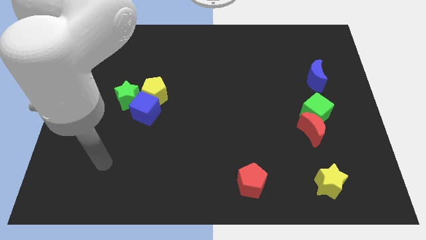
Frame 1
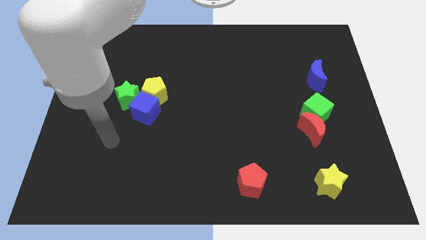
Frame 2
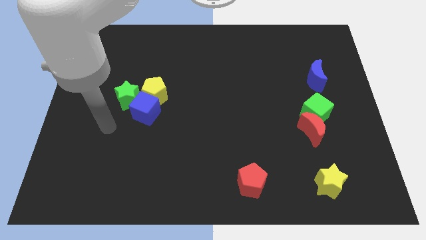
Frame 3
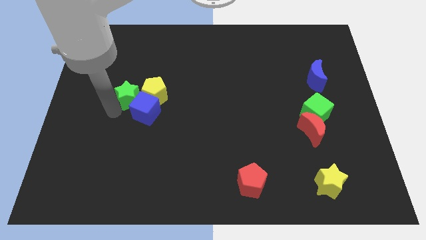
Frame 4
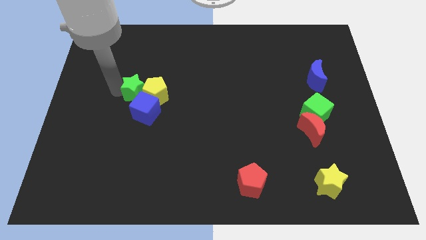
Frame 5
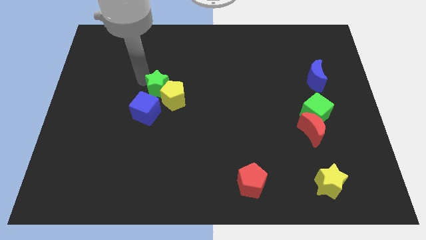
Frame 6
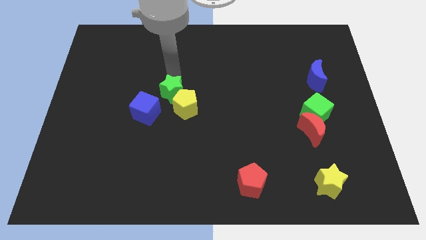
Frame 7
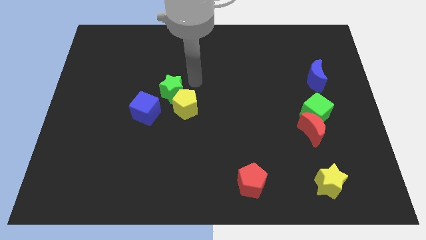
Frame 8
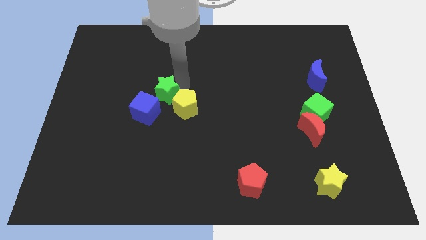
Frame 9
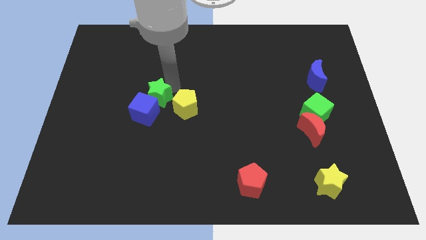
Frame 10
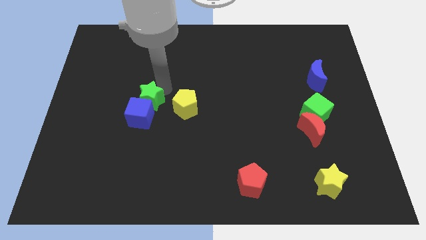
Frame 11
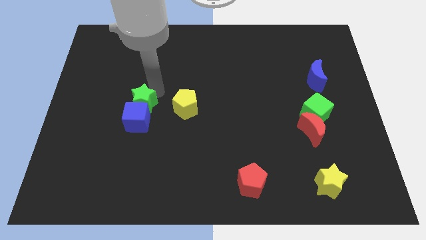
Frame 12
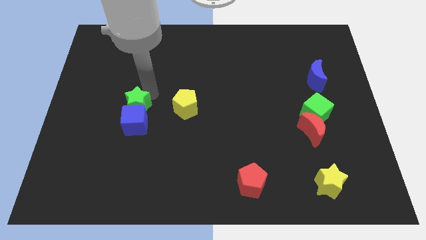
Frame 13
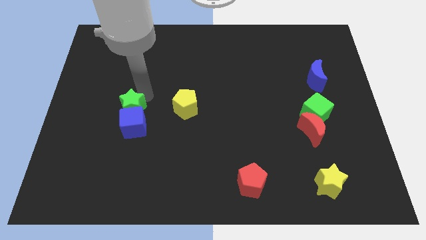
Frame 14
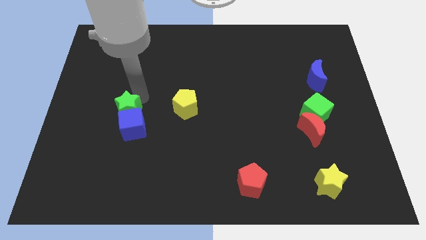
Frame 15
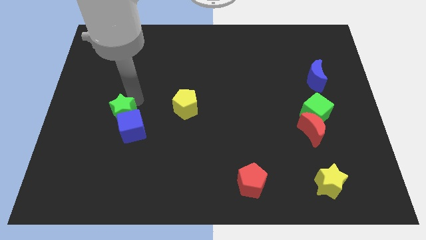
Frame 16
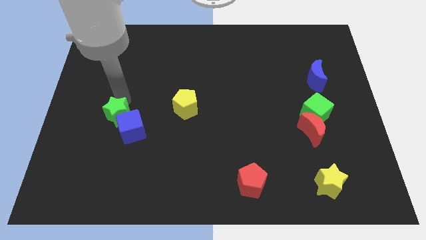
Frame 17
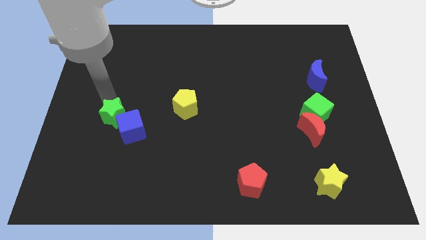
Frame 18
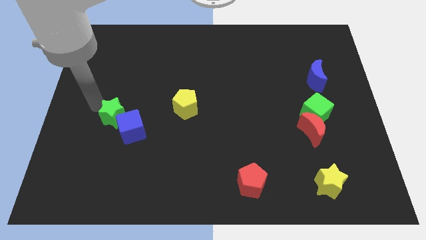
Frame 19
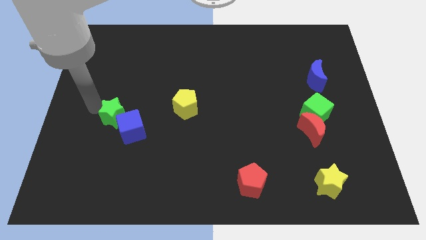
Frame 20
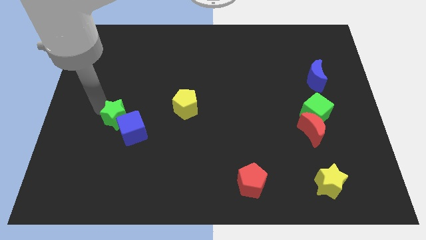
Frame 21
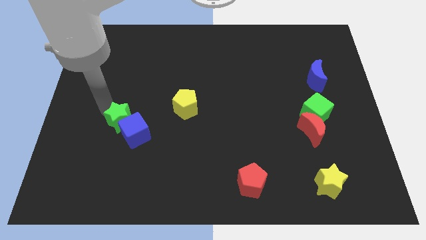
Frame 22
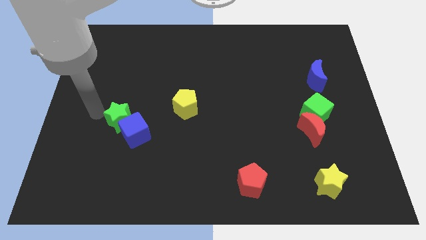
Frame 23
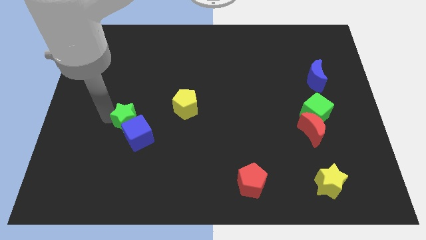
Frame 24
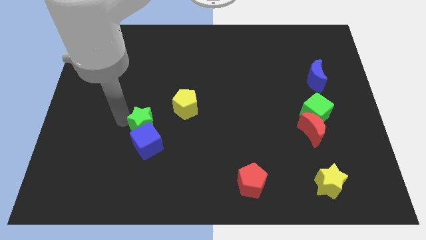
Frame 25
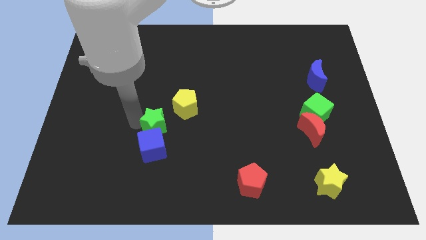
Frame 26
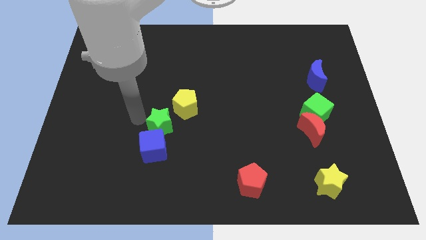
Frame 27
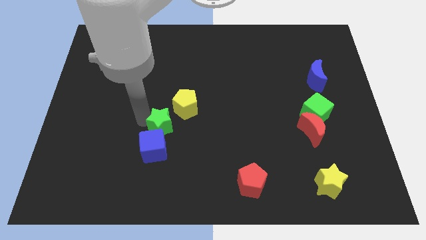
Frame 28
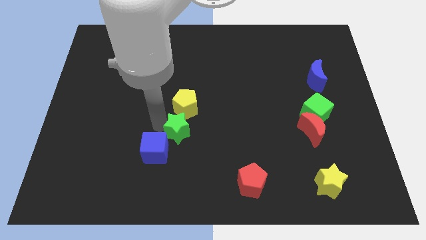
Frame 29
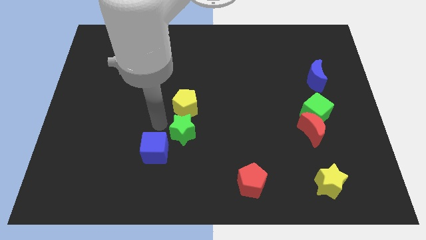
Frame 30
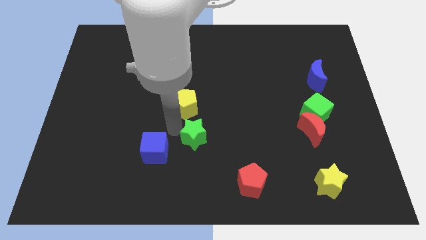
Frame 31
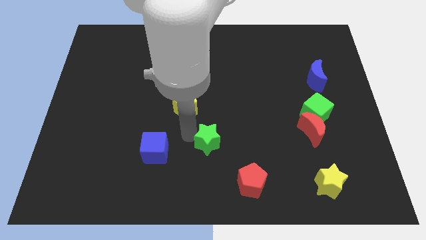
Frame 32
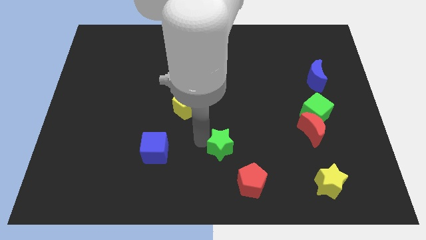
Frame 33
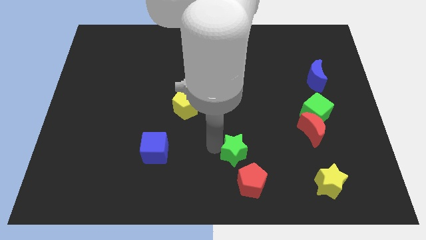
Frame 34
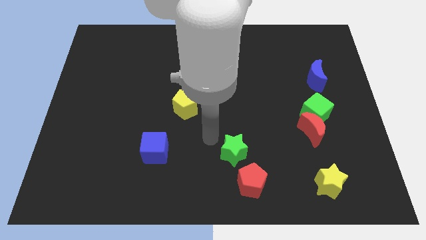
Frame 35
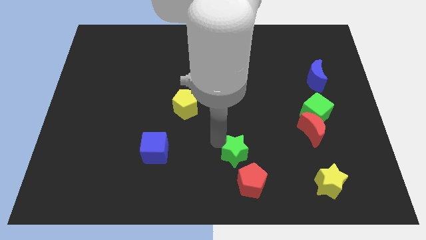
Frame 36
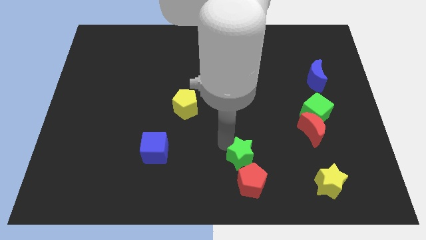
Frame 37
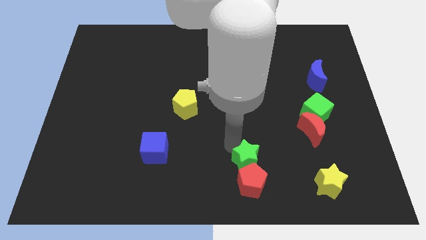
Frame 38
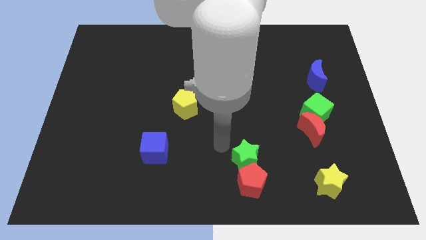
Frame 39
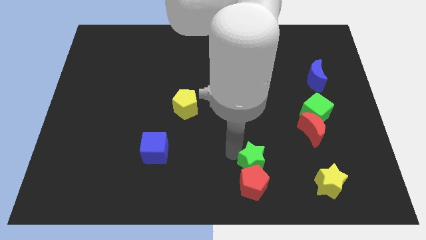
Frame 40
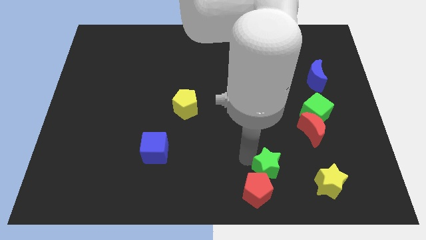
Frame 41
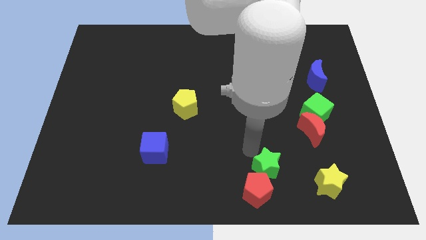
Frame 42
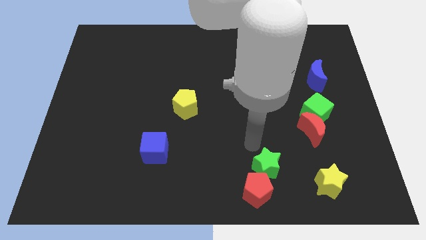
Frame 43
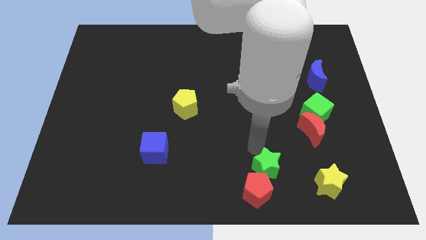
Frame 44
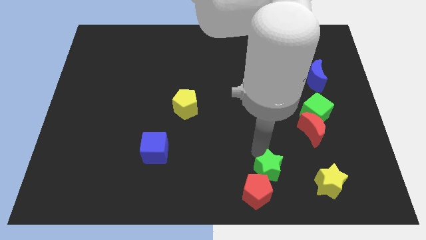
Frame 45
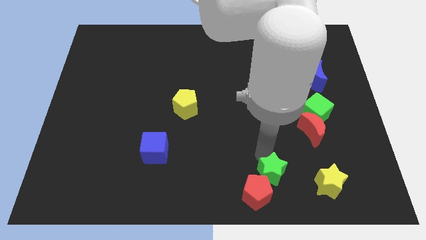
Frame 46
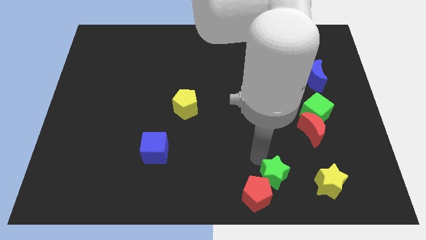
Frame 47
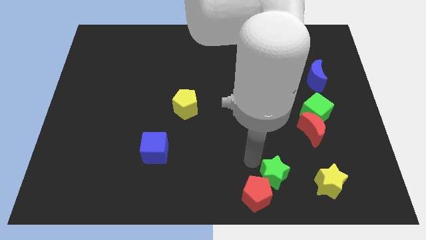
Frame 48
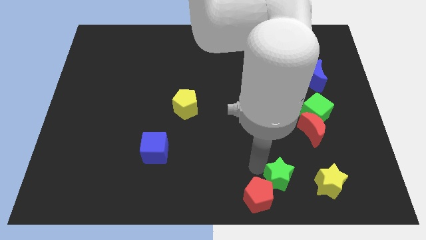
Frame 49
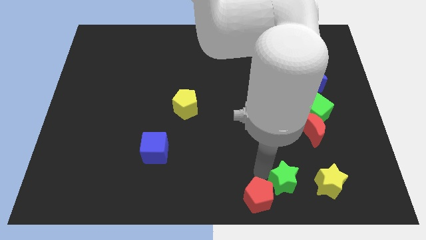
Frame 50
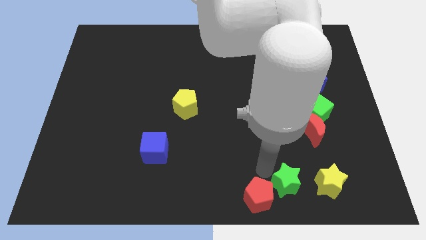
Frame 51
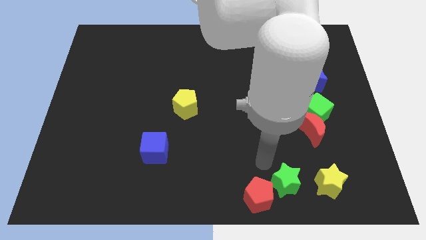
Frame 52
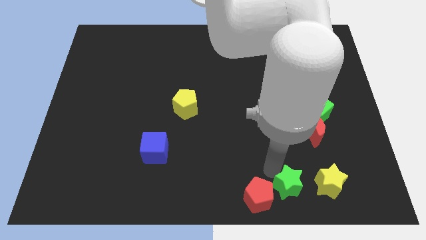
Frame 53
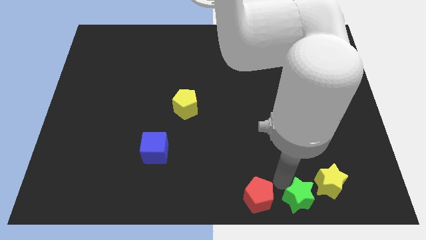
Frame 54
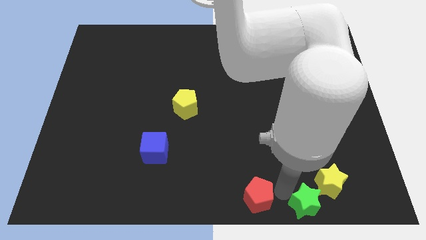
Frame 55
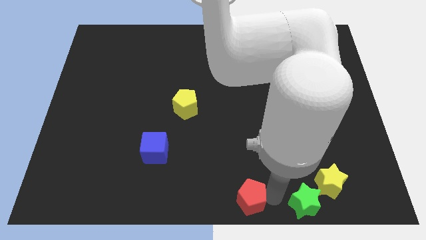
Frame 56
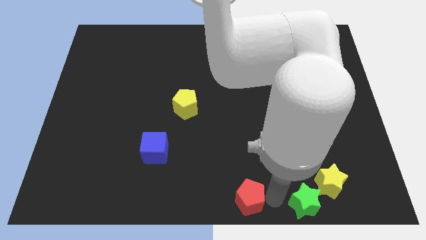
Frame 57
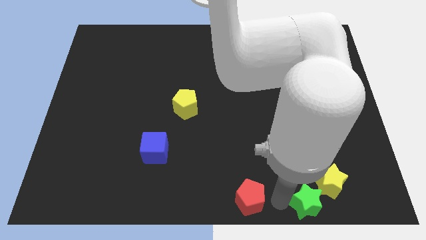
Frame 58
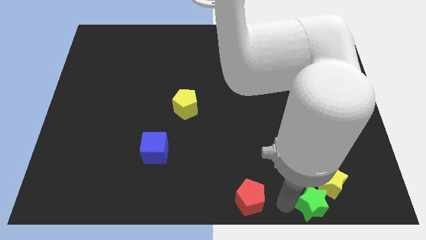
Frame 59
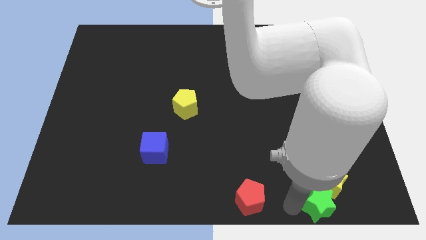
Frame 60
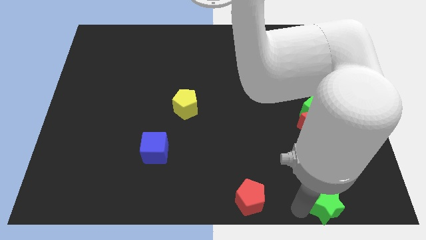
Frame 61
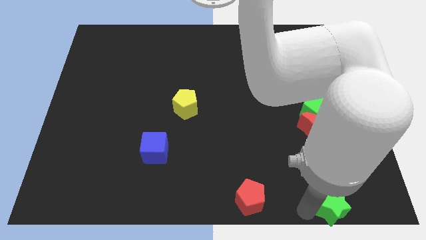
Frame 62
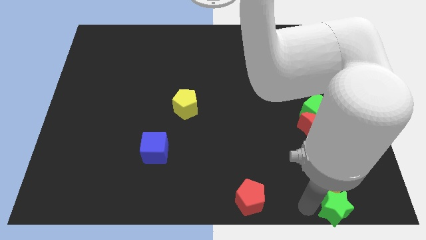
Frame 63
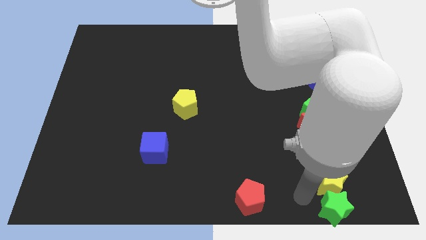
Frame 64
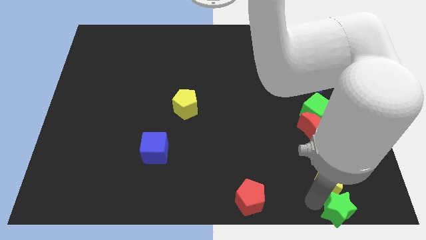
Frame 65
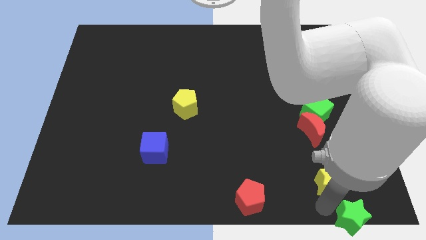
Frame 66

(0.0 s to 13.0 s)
move the green star to the bottom right of the board
